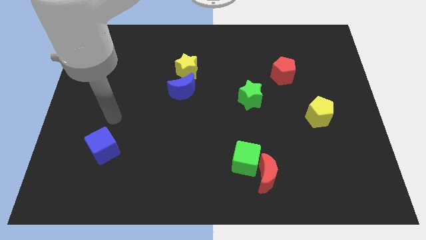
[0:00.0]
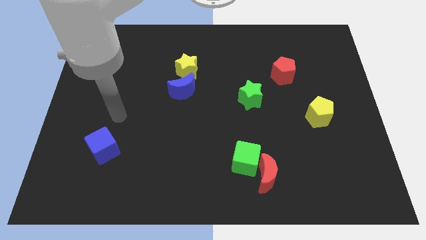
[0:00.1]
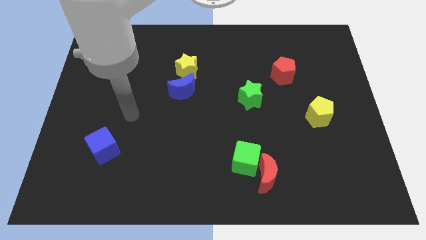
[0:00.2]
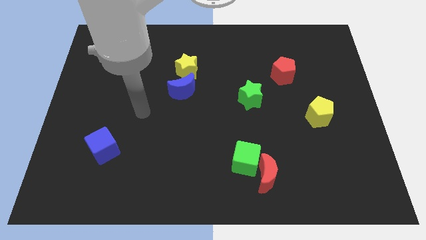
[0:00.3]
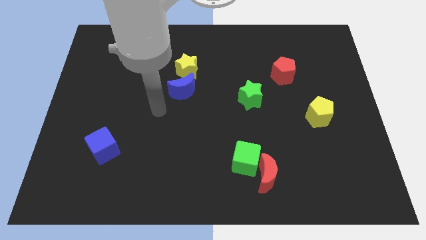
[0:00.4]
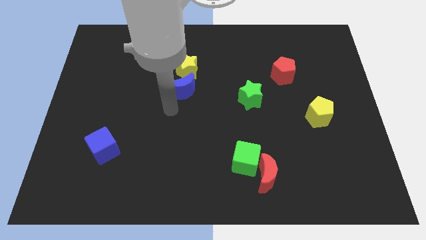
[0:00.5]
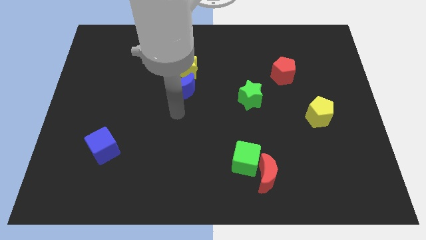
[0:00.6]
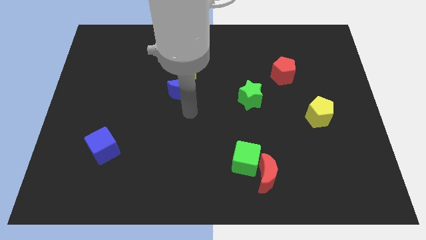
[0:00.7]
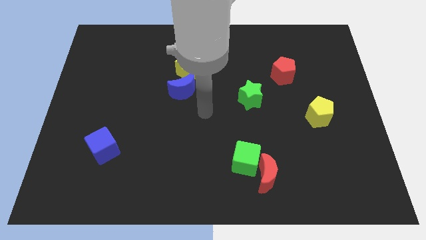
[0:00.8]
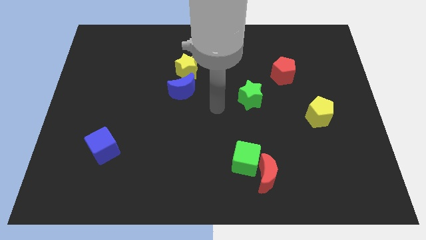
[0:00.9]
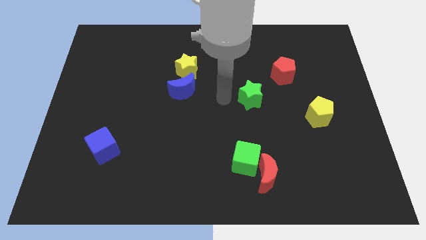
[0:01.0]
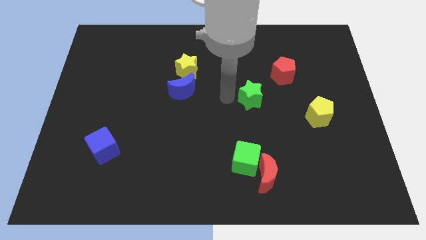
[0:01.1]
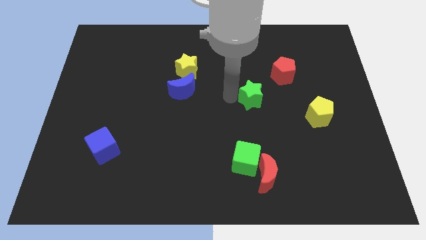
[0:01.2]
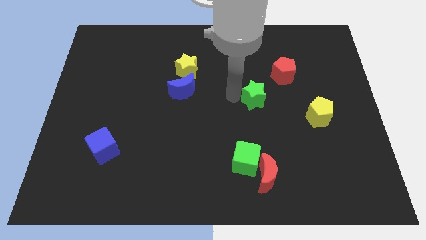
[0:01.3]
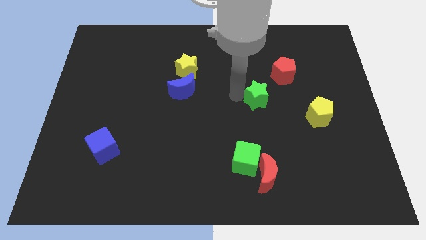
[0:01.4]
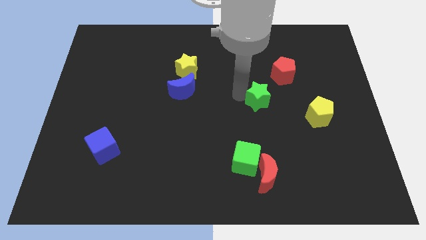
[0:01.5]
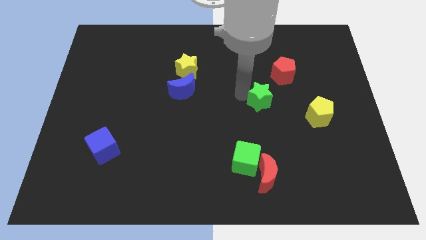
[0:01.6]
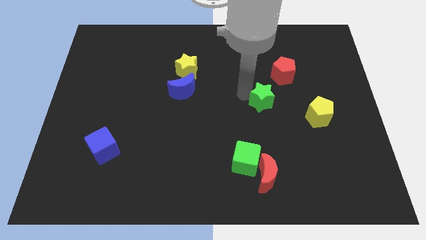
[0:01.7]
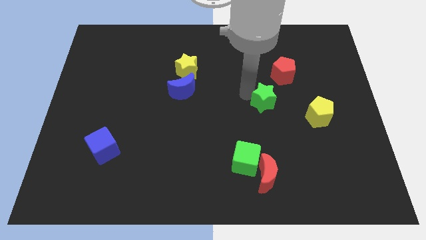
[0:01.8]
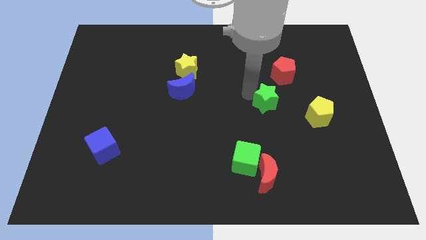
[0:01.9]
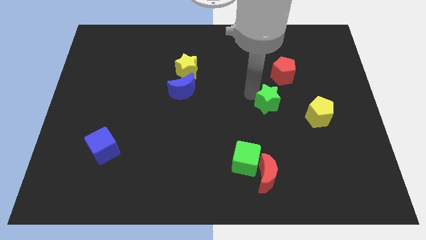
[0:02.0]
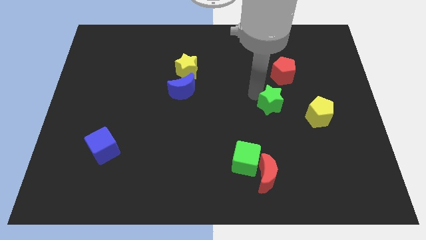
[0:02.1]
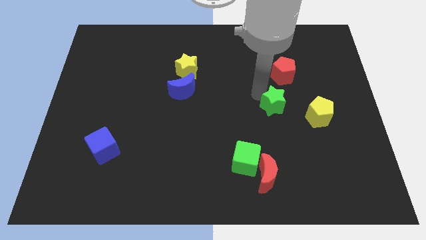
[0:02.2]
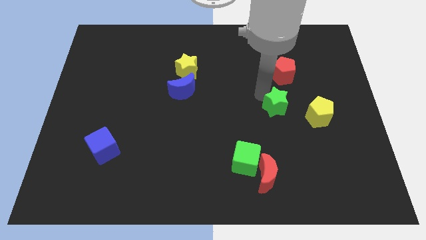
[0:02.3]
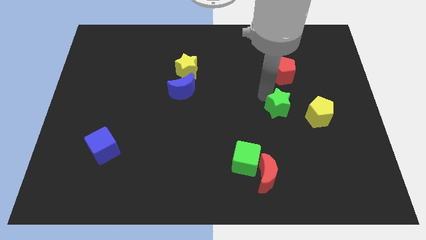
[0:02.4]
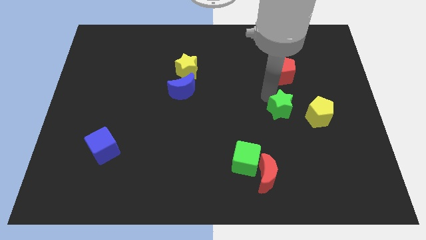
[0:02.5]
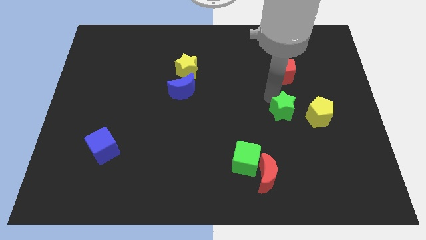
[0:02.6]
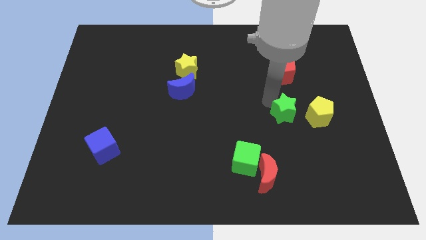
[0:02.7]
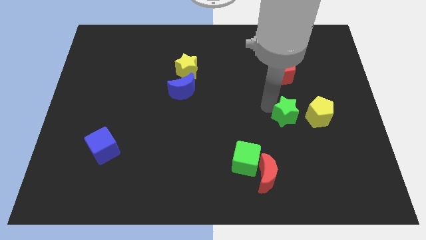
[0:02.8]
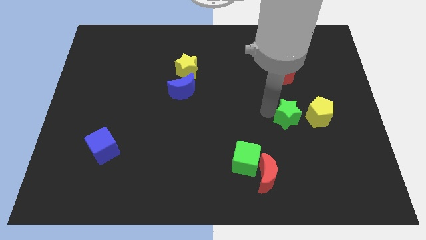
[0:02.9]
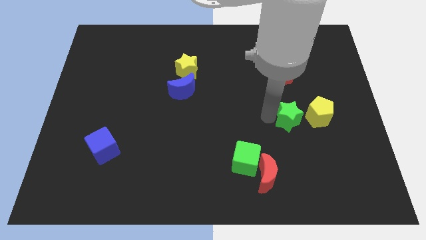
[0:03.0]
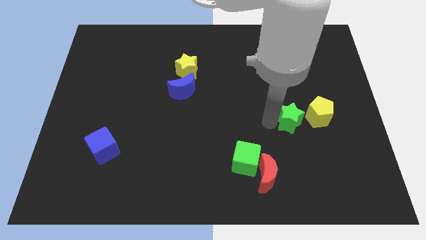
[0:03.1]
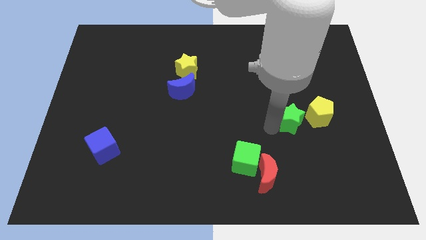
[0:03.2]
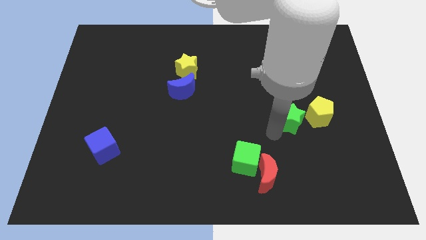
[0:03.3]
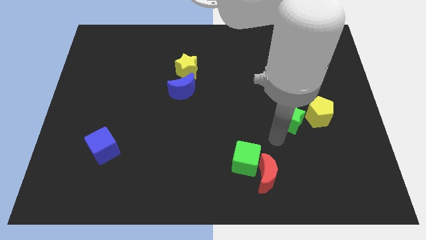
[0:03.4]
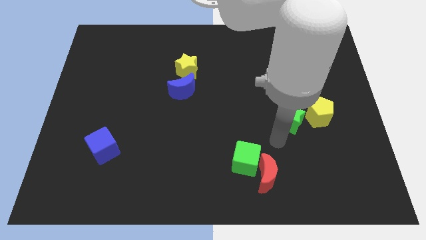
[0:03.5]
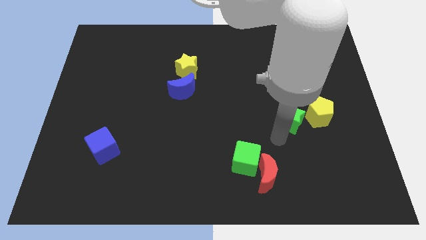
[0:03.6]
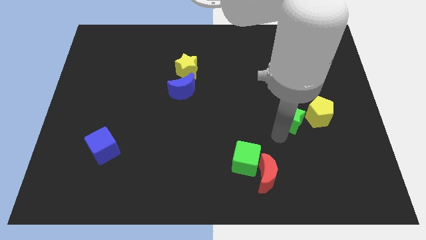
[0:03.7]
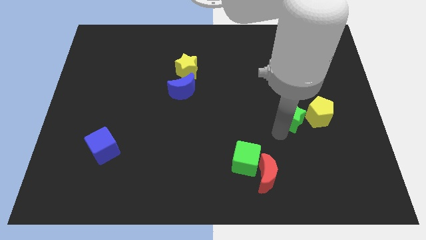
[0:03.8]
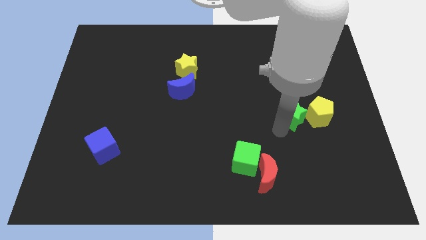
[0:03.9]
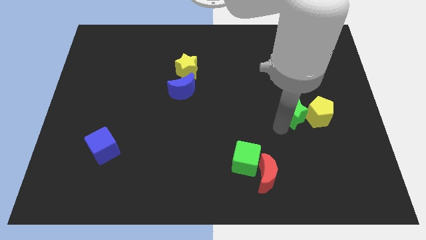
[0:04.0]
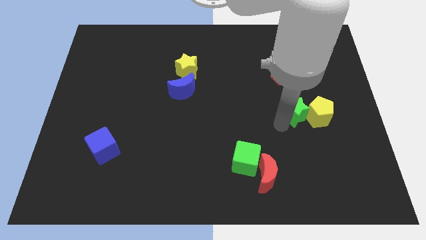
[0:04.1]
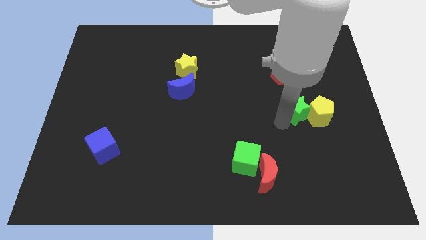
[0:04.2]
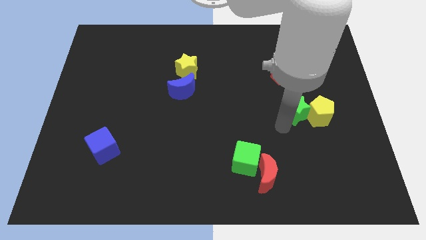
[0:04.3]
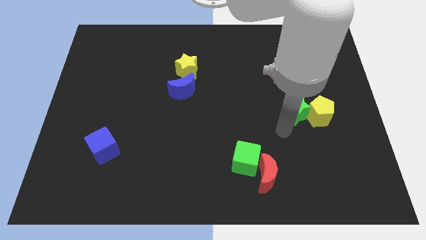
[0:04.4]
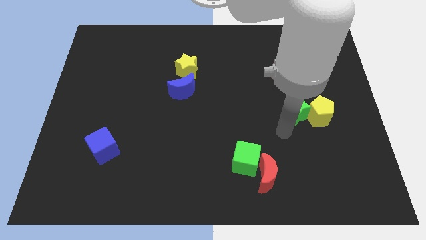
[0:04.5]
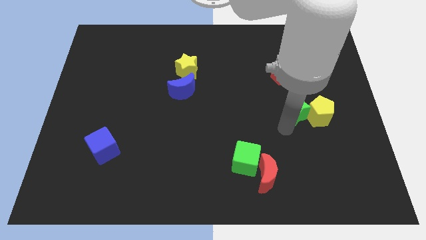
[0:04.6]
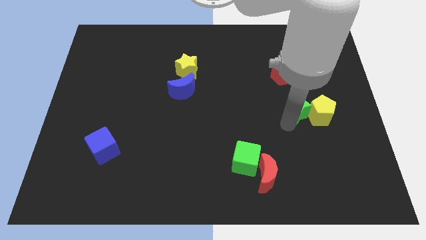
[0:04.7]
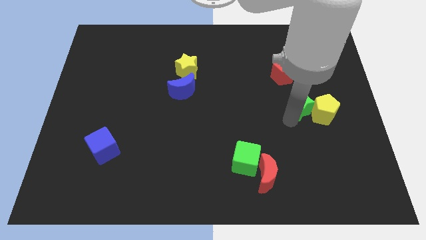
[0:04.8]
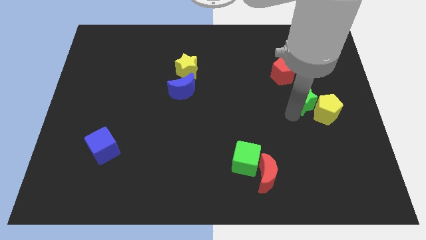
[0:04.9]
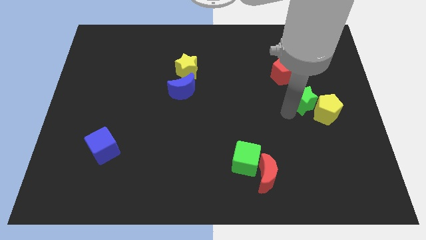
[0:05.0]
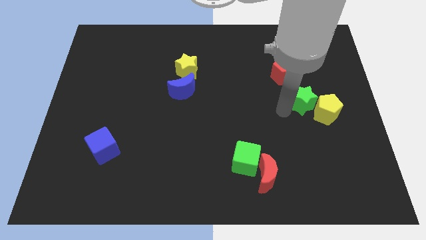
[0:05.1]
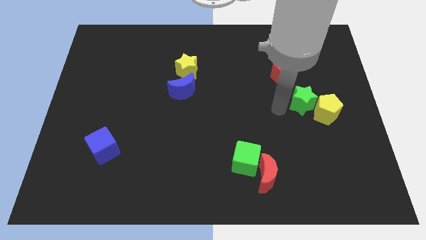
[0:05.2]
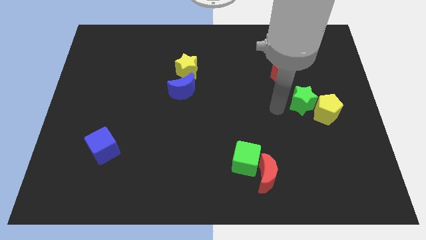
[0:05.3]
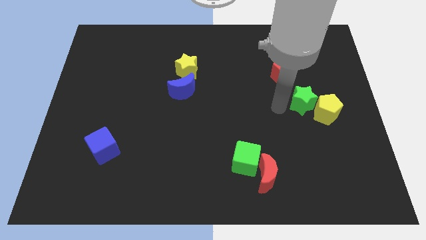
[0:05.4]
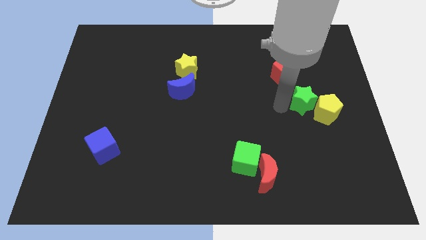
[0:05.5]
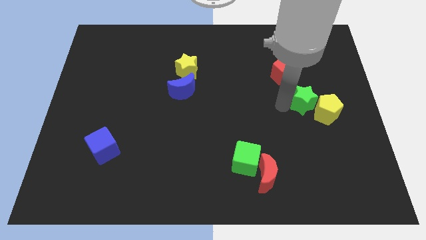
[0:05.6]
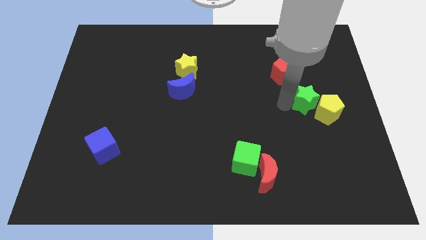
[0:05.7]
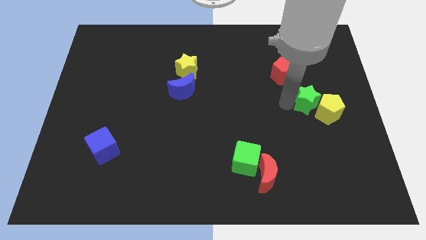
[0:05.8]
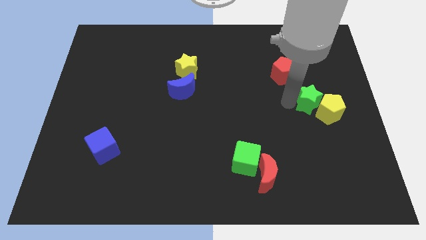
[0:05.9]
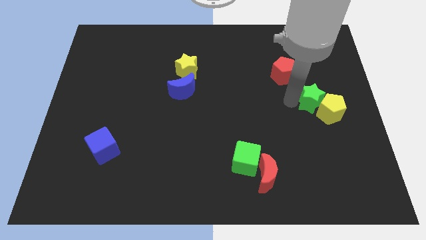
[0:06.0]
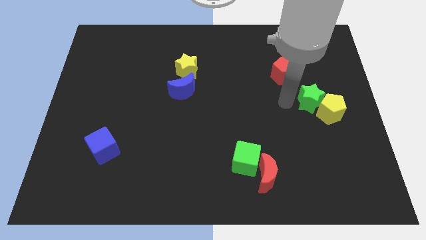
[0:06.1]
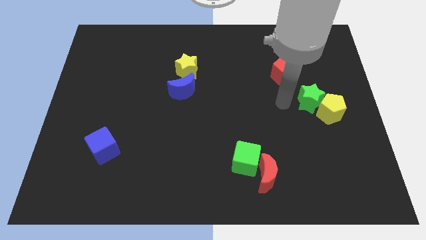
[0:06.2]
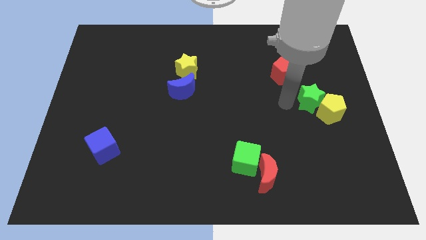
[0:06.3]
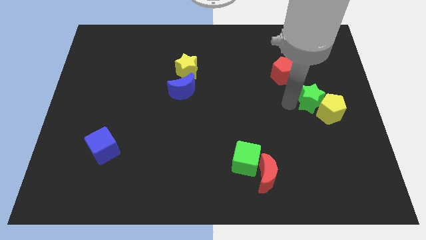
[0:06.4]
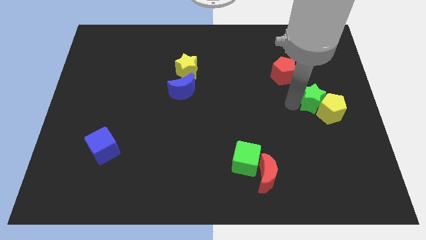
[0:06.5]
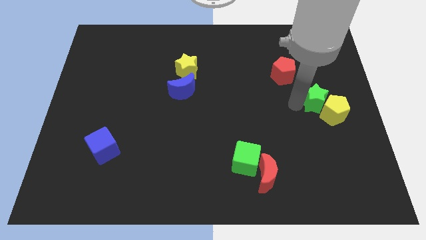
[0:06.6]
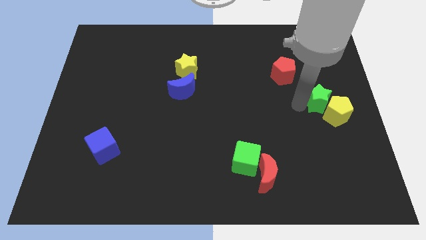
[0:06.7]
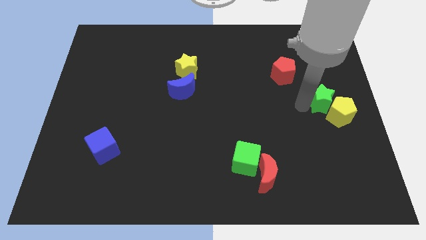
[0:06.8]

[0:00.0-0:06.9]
put the green star to the right side of the board
